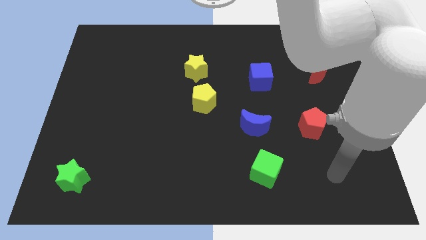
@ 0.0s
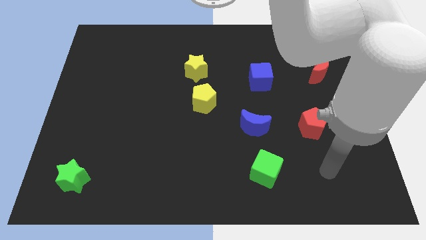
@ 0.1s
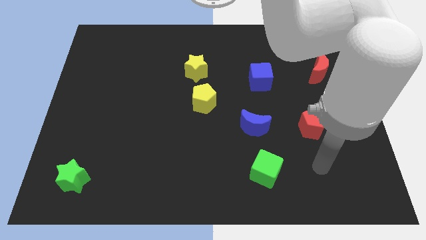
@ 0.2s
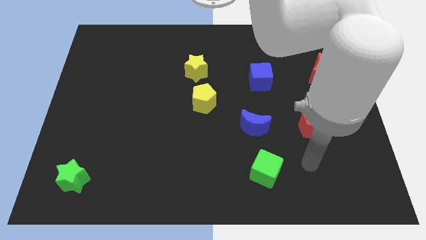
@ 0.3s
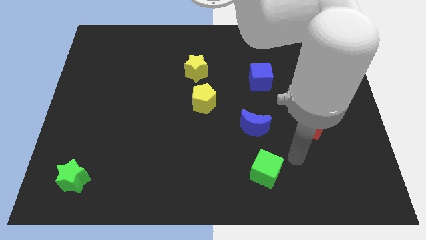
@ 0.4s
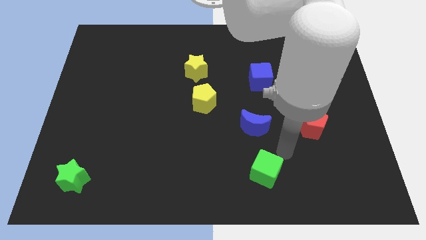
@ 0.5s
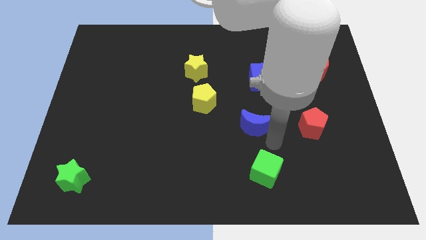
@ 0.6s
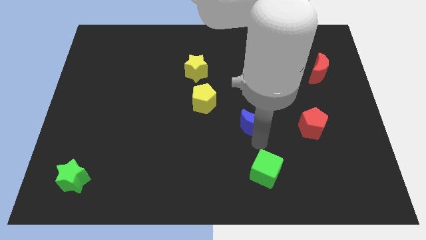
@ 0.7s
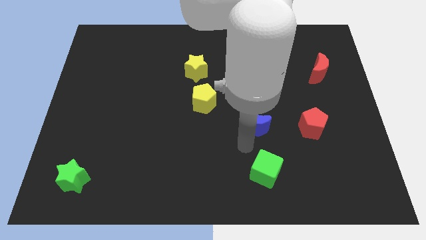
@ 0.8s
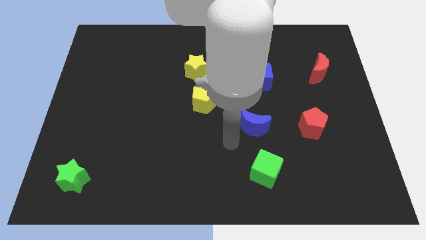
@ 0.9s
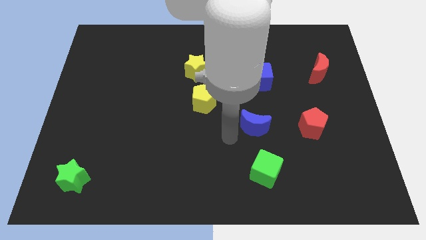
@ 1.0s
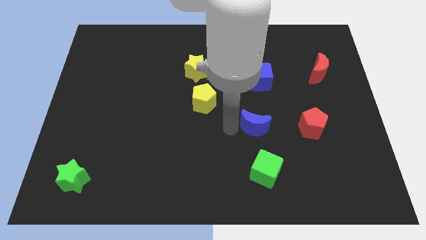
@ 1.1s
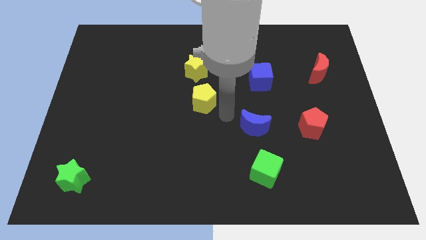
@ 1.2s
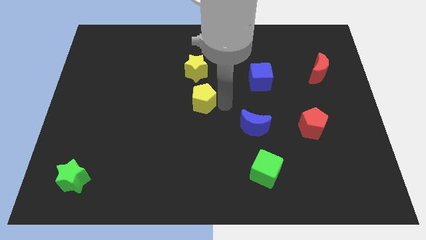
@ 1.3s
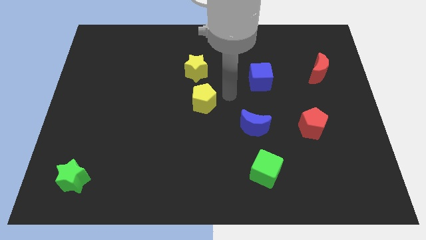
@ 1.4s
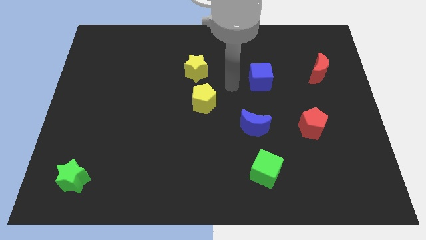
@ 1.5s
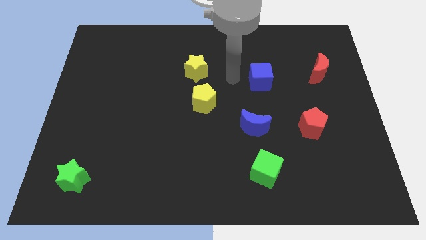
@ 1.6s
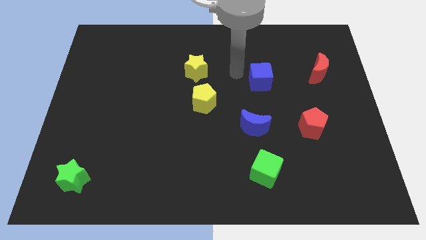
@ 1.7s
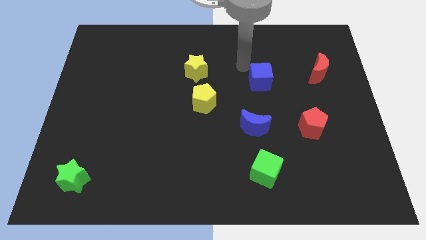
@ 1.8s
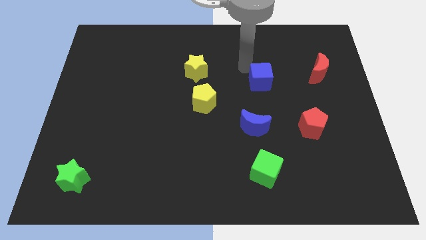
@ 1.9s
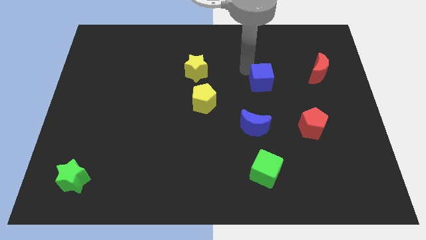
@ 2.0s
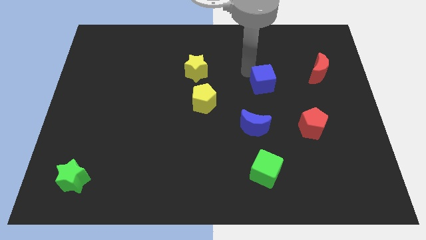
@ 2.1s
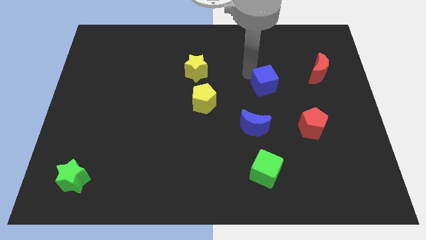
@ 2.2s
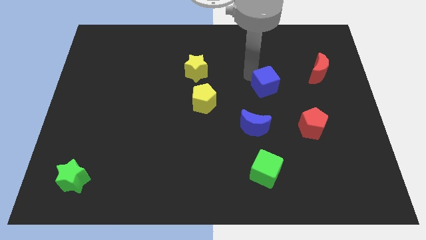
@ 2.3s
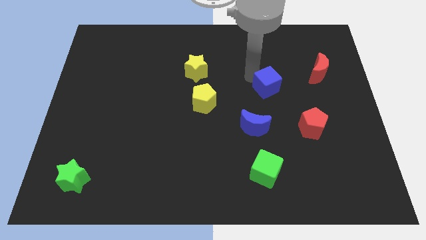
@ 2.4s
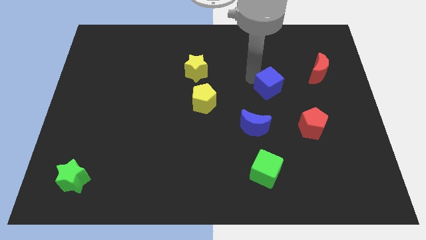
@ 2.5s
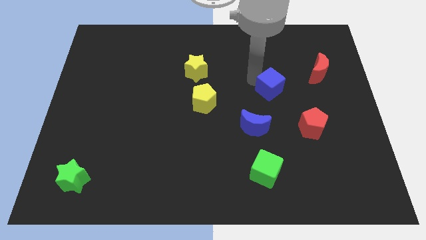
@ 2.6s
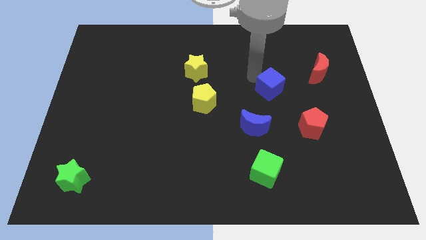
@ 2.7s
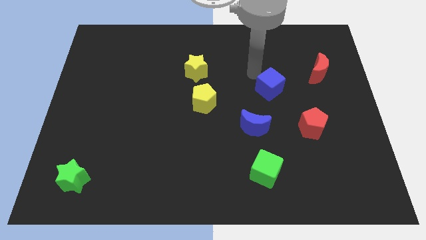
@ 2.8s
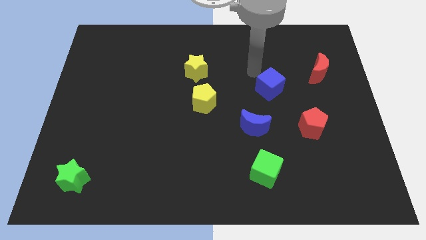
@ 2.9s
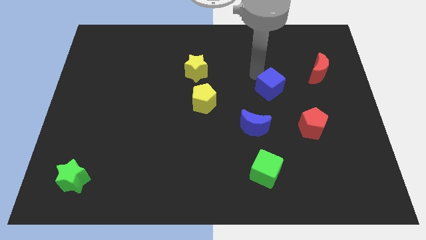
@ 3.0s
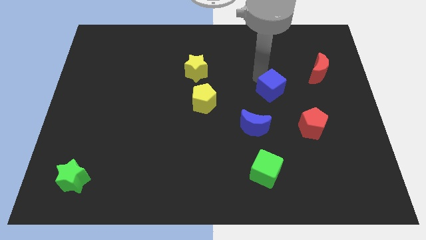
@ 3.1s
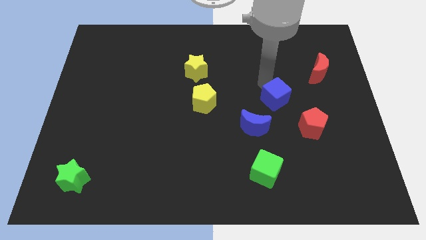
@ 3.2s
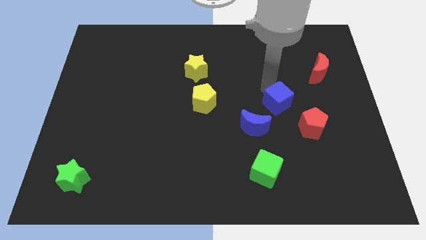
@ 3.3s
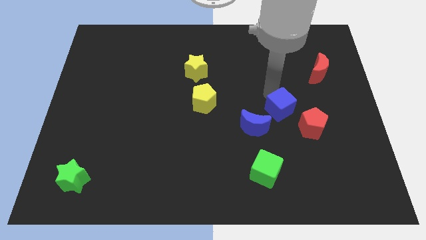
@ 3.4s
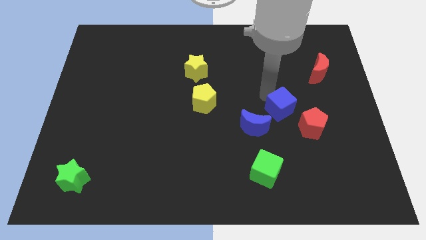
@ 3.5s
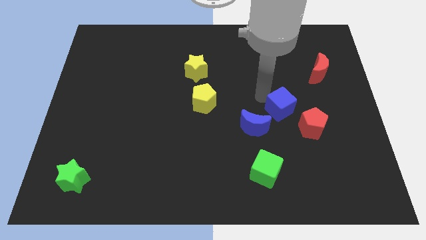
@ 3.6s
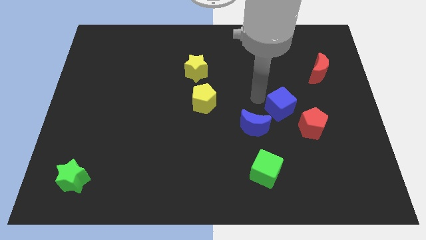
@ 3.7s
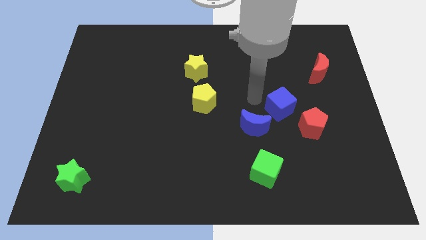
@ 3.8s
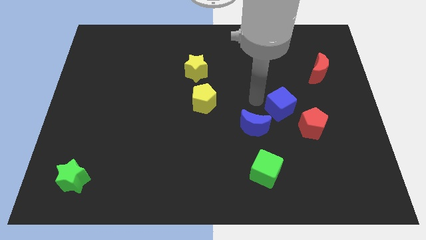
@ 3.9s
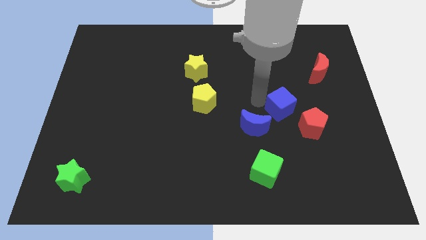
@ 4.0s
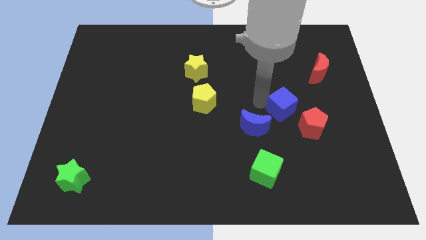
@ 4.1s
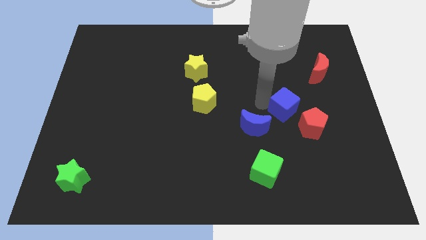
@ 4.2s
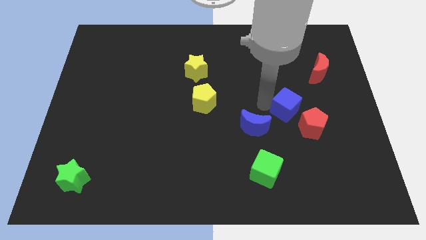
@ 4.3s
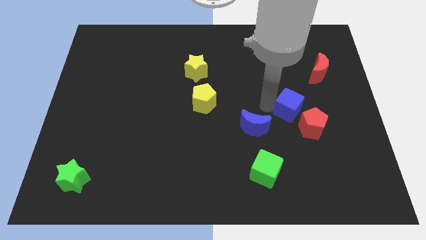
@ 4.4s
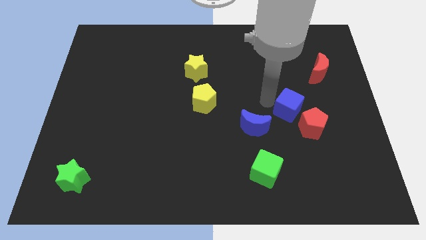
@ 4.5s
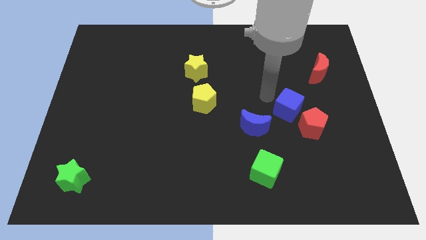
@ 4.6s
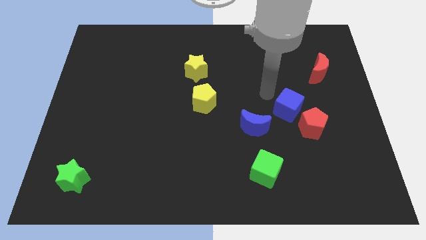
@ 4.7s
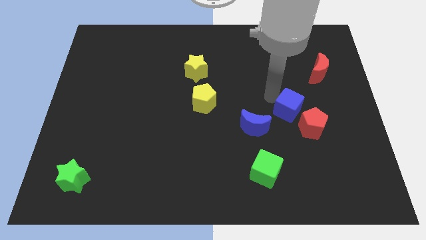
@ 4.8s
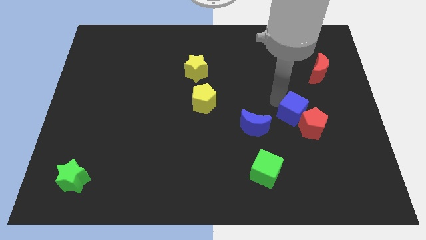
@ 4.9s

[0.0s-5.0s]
move the blue cube towards the red pentagon

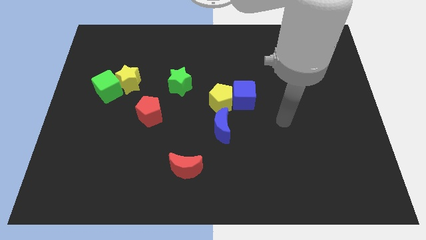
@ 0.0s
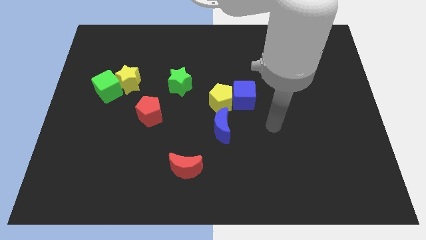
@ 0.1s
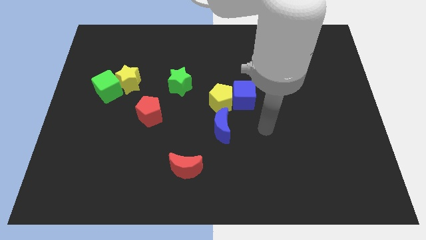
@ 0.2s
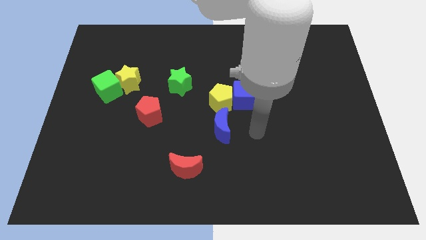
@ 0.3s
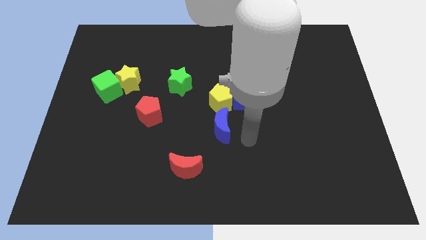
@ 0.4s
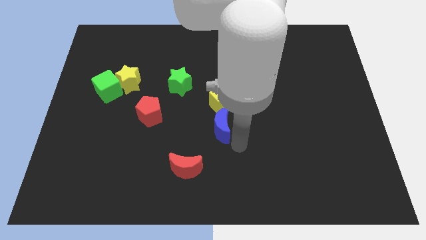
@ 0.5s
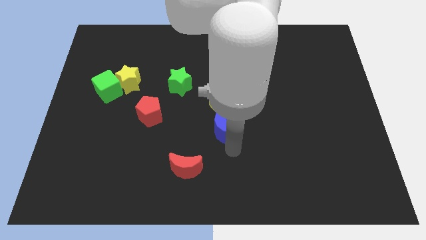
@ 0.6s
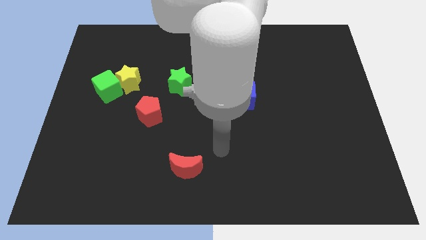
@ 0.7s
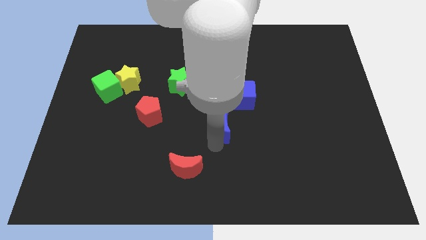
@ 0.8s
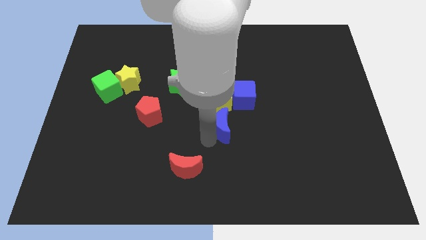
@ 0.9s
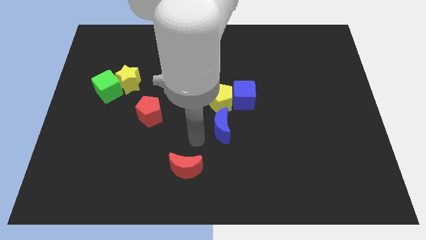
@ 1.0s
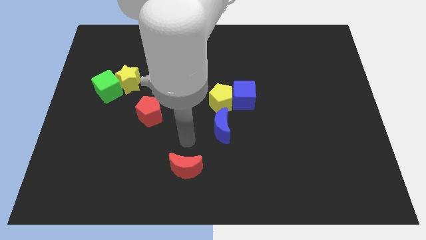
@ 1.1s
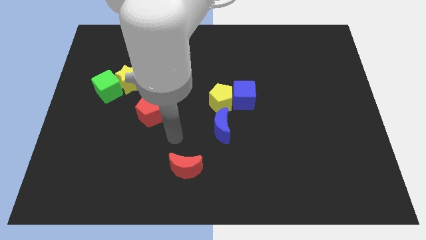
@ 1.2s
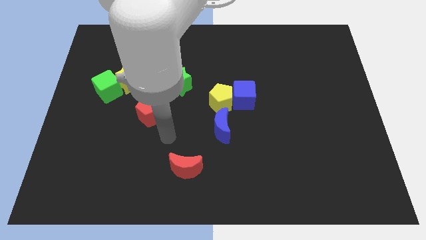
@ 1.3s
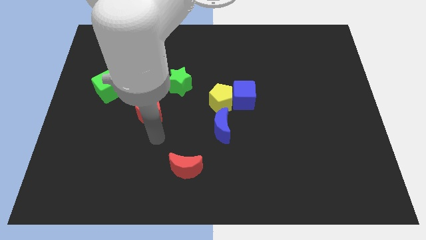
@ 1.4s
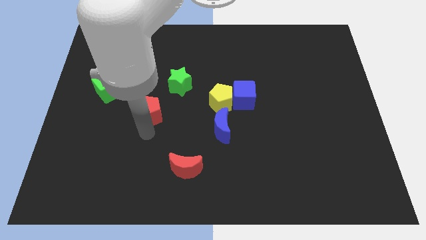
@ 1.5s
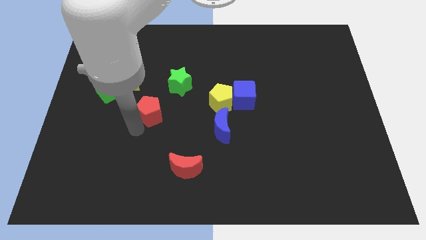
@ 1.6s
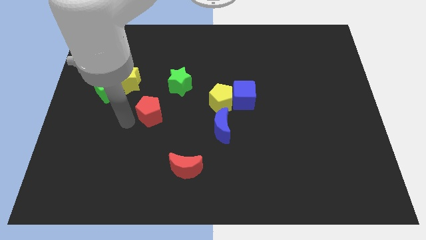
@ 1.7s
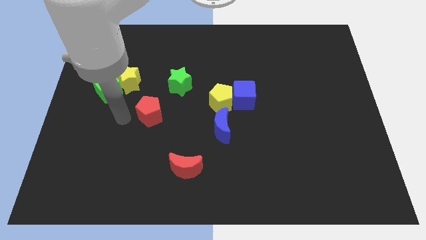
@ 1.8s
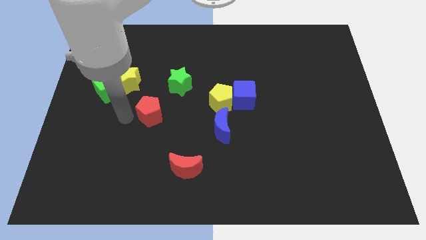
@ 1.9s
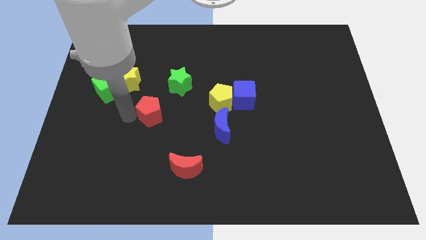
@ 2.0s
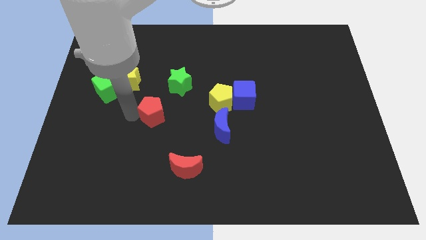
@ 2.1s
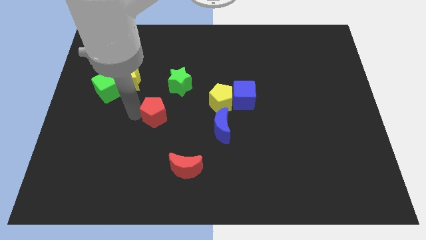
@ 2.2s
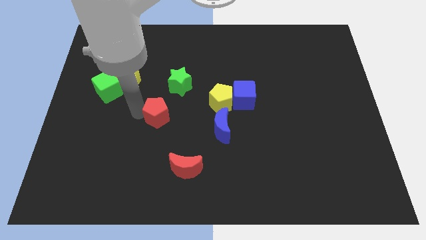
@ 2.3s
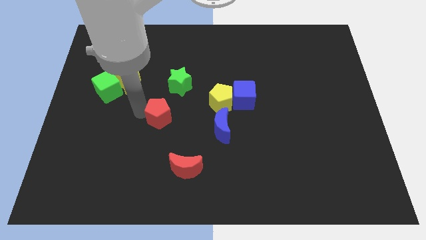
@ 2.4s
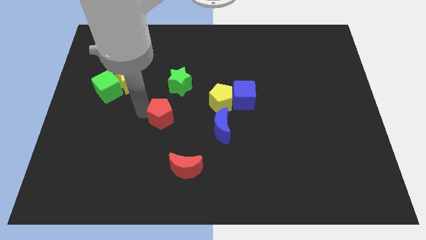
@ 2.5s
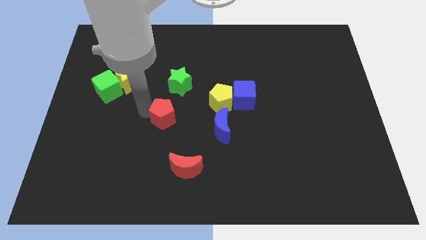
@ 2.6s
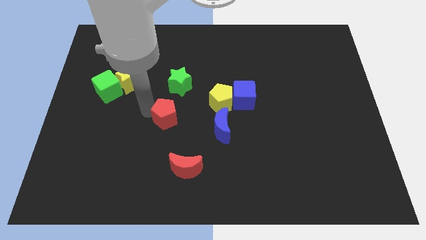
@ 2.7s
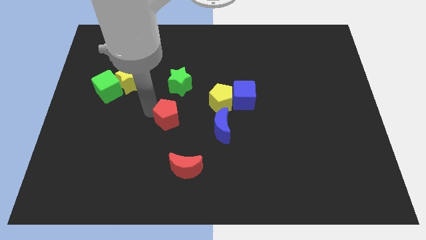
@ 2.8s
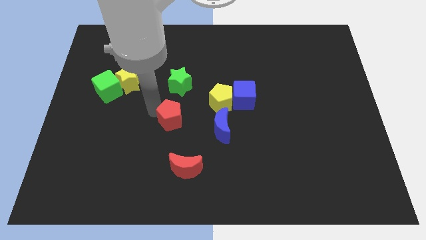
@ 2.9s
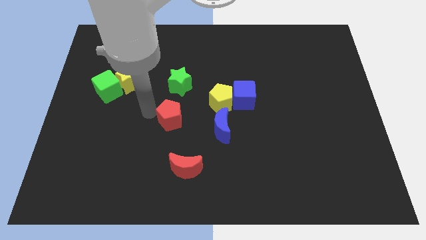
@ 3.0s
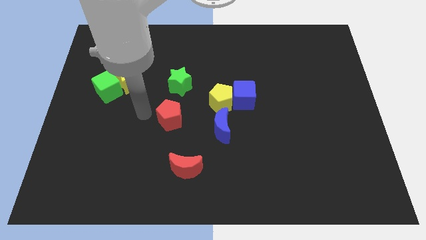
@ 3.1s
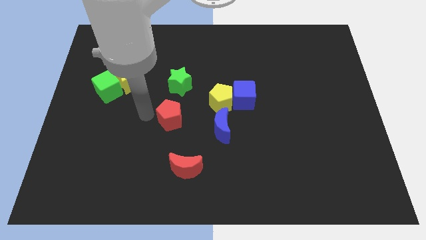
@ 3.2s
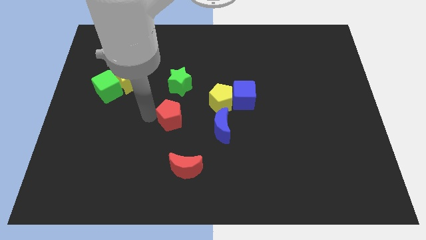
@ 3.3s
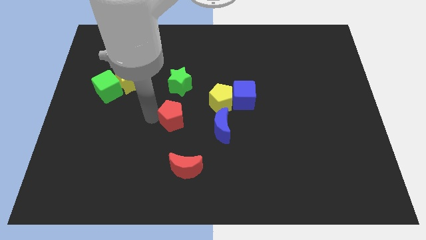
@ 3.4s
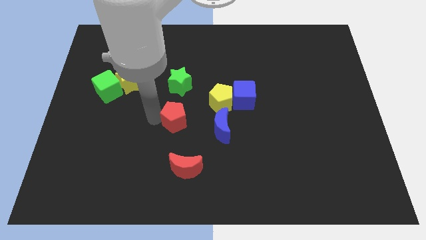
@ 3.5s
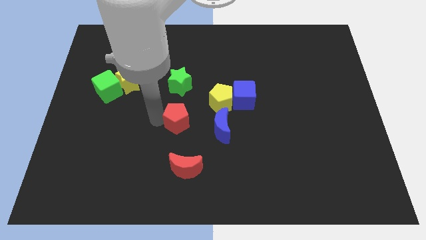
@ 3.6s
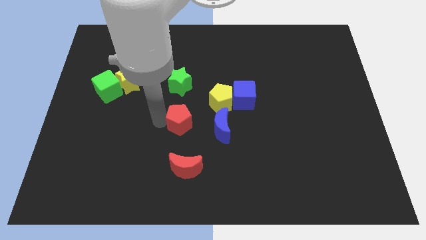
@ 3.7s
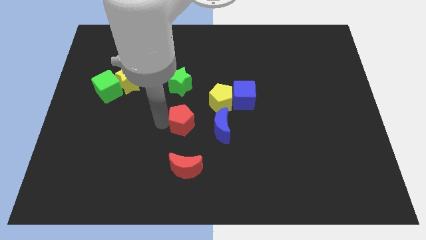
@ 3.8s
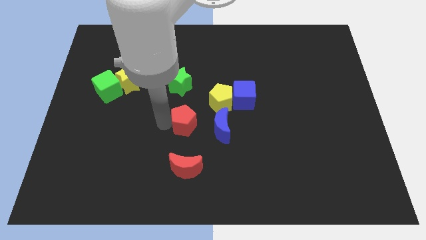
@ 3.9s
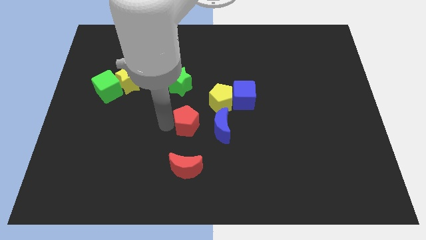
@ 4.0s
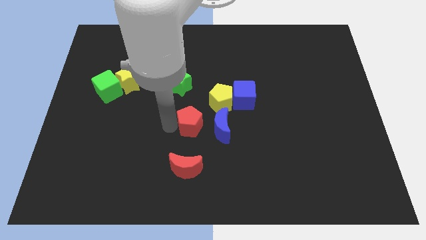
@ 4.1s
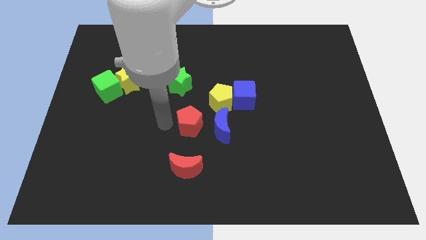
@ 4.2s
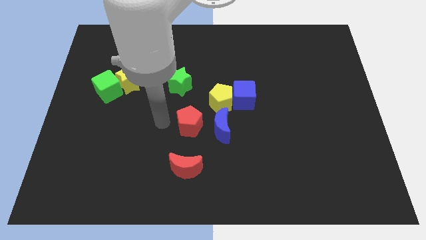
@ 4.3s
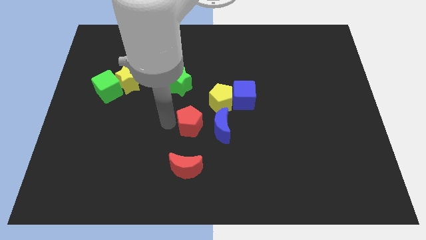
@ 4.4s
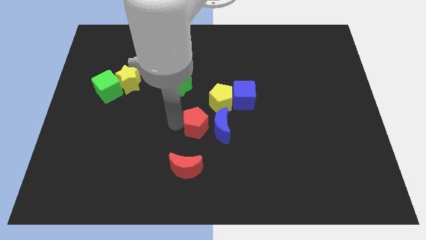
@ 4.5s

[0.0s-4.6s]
put the red pentagon next to the blue moon
